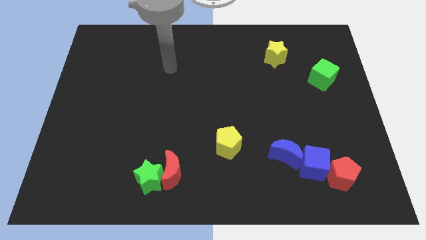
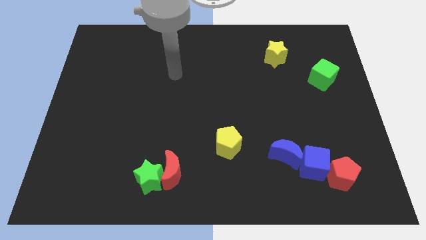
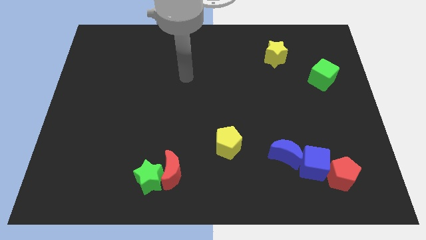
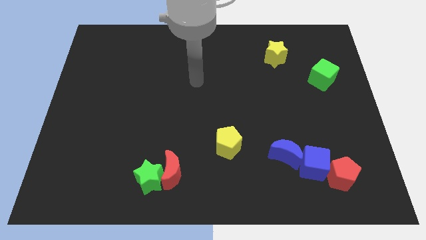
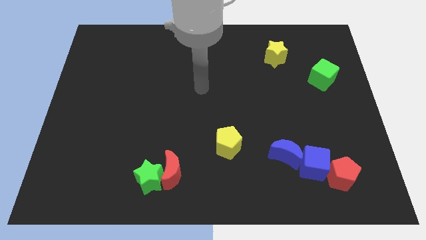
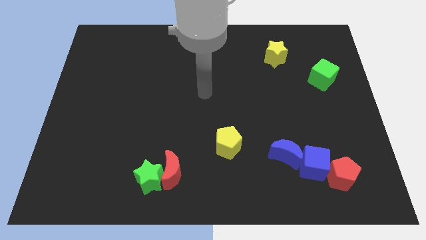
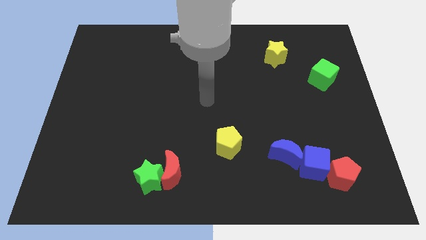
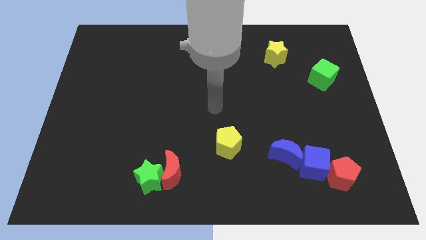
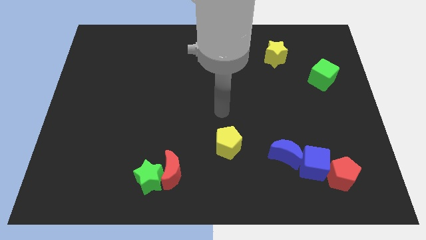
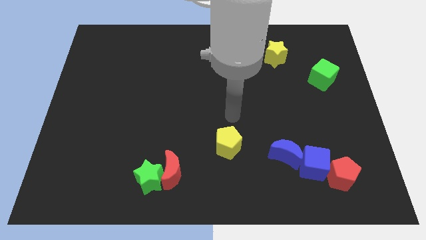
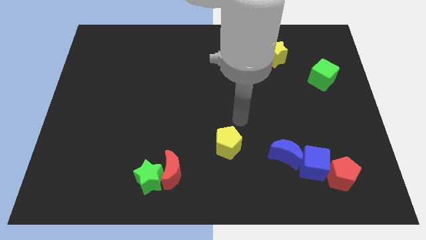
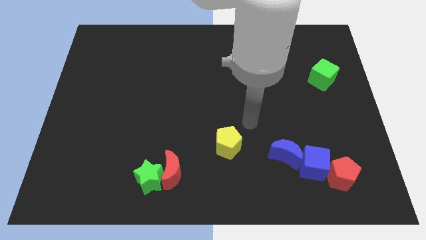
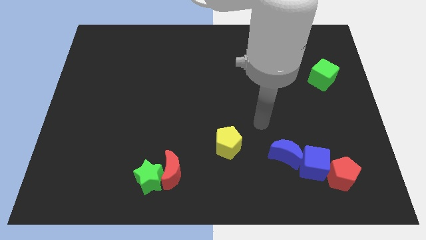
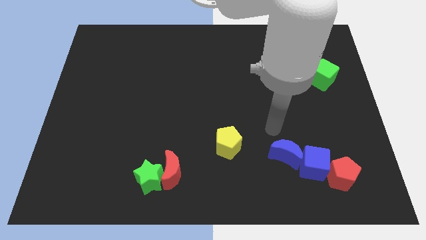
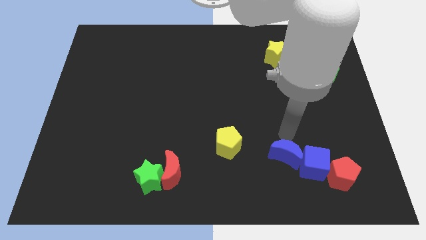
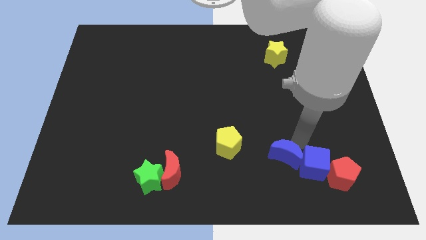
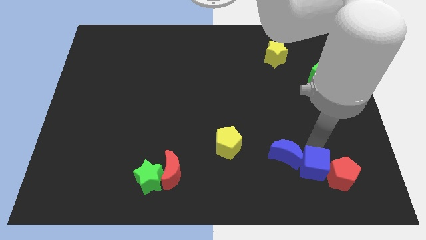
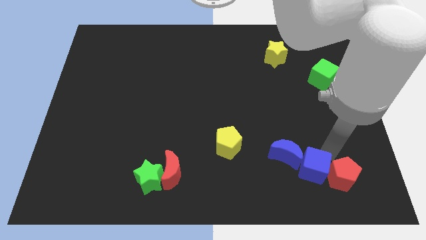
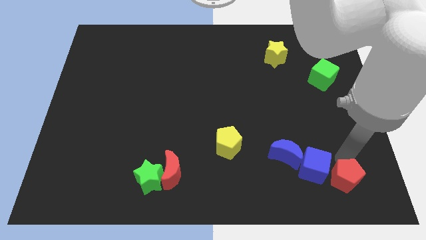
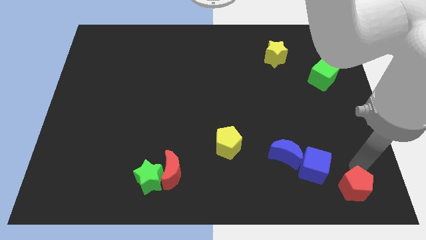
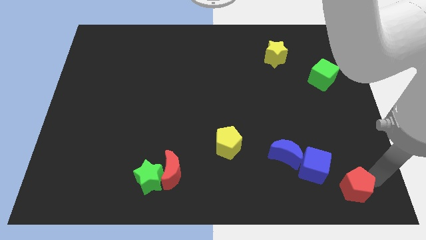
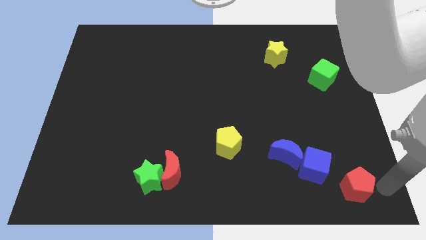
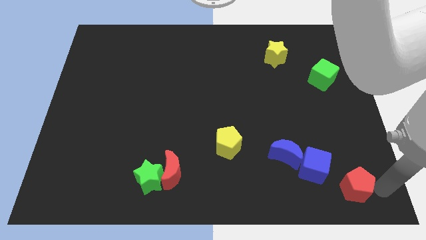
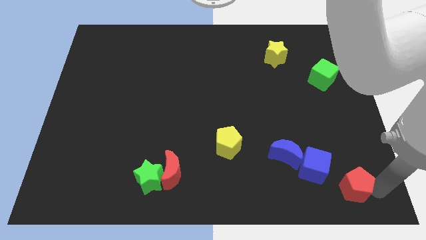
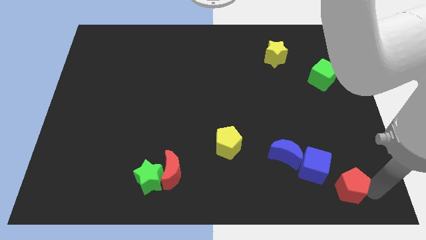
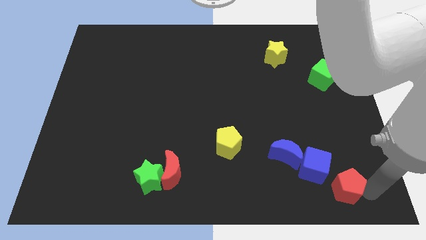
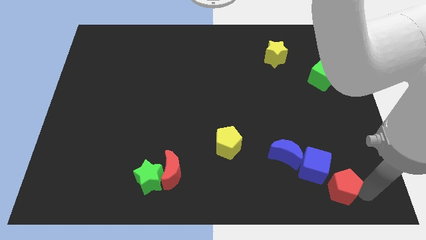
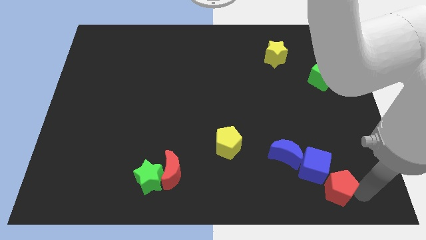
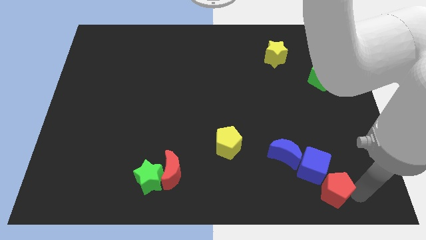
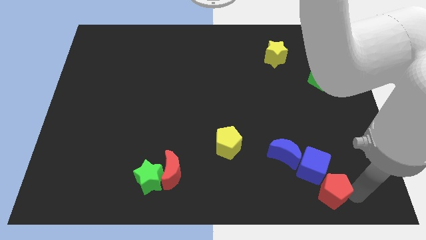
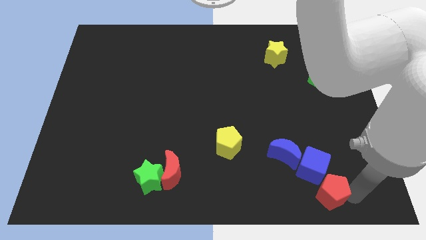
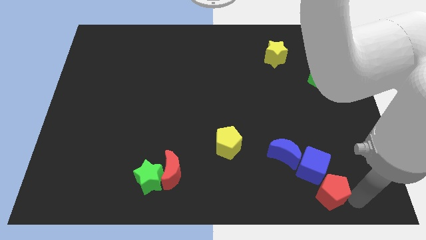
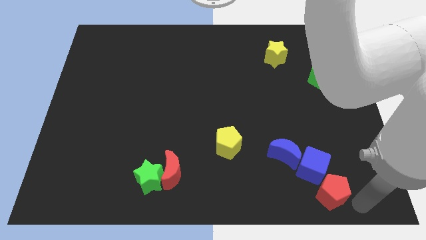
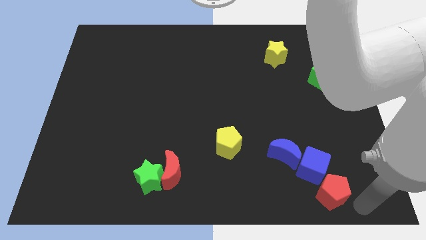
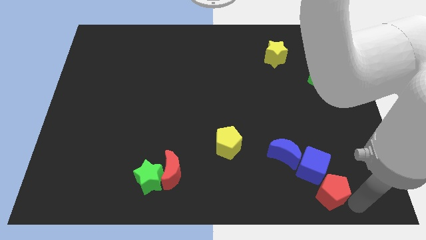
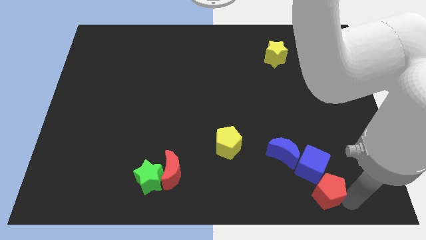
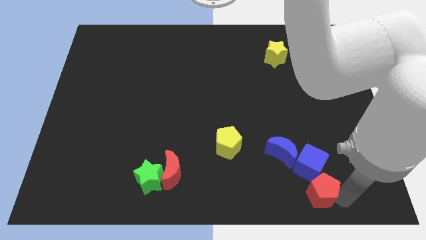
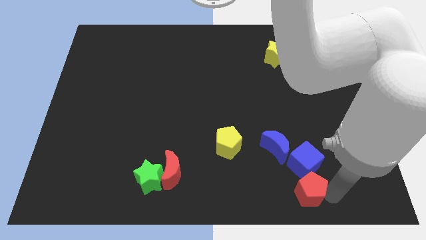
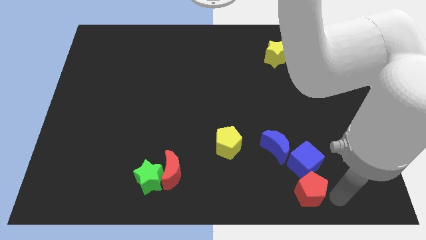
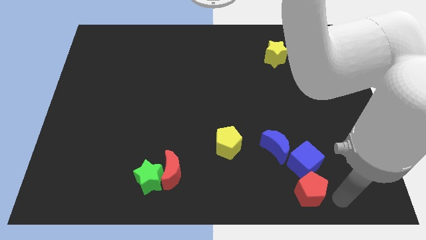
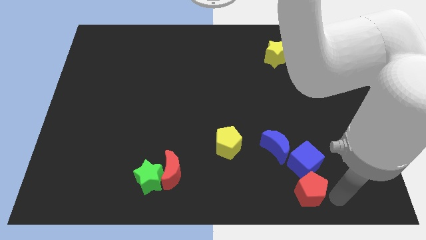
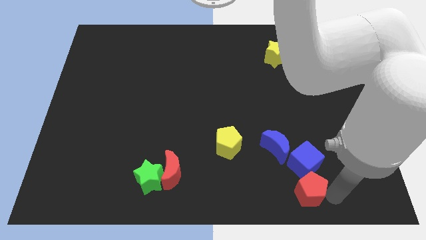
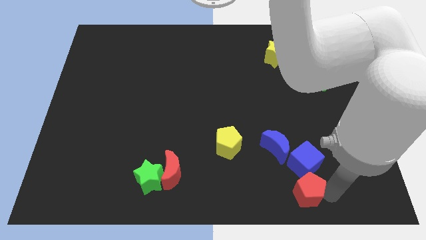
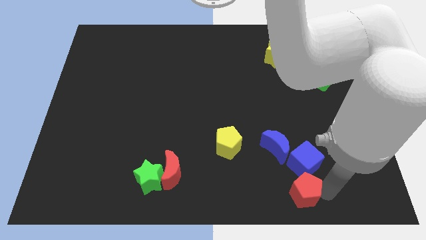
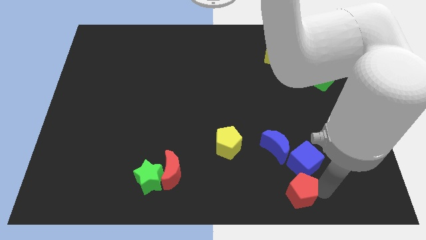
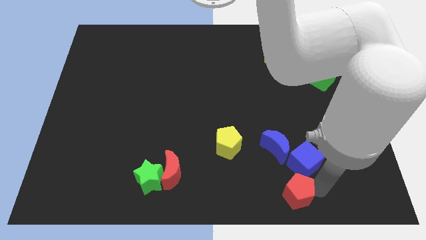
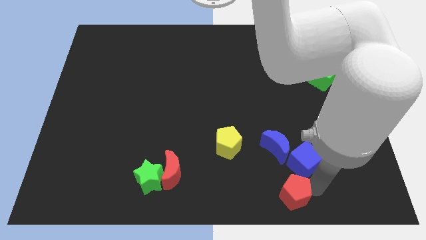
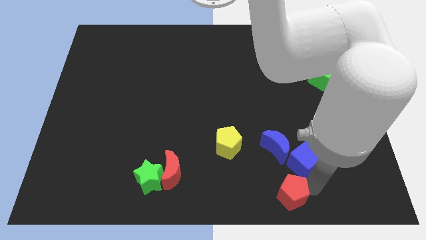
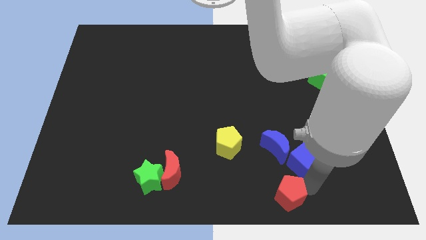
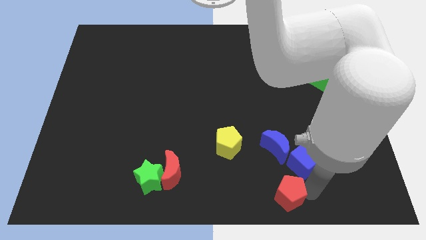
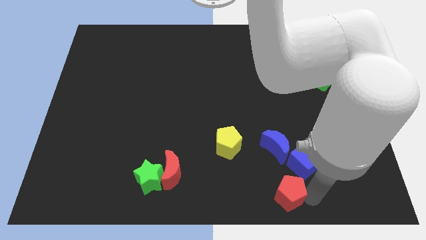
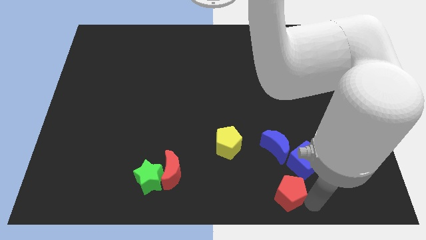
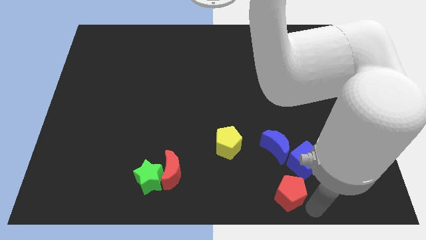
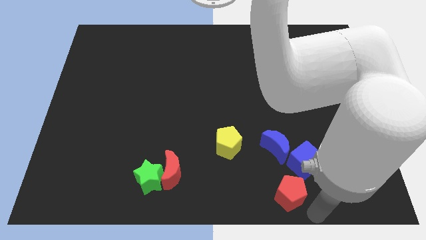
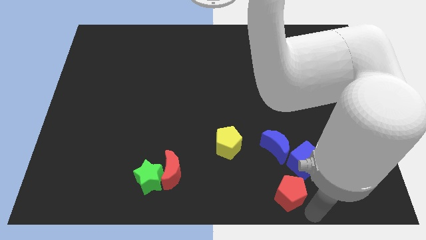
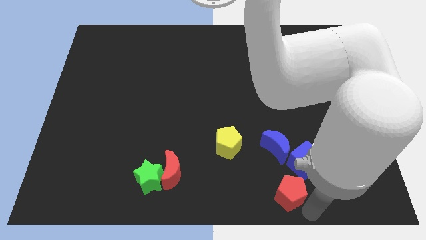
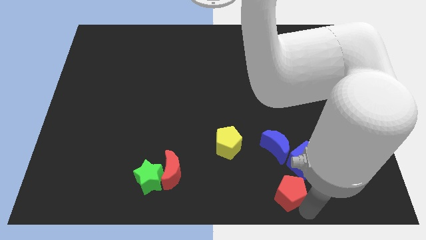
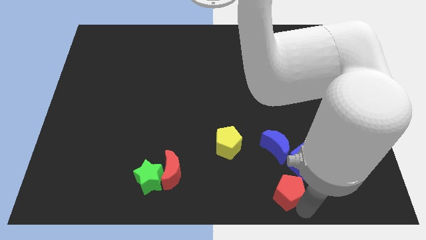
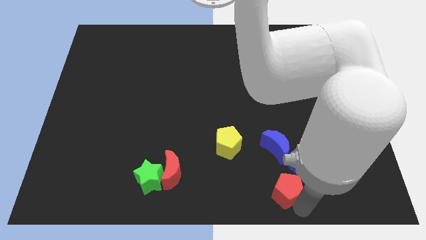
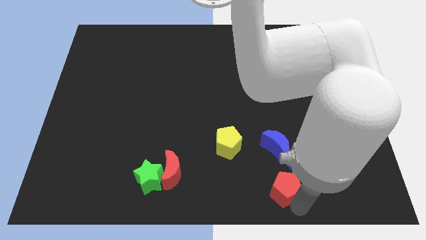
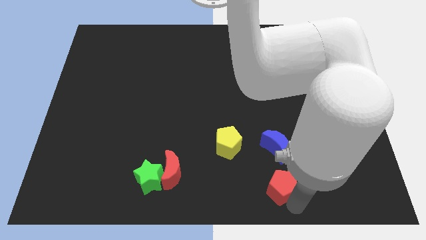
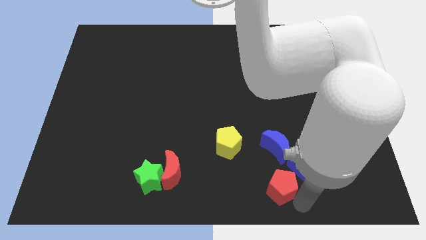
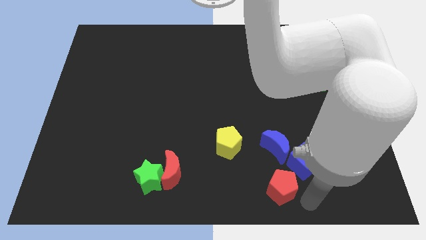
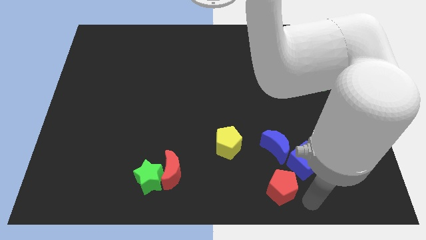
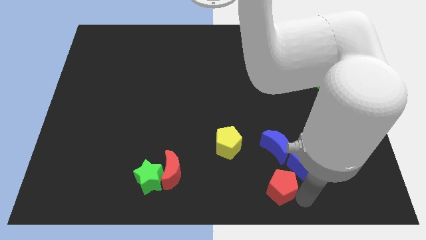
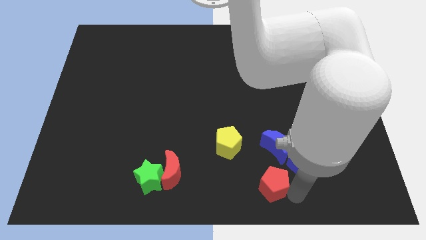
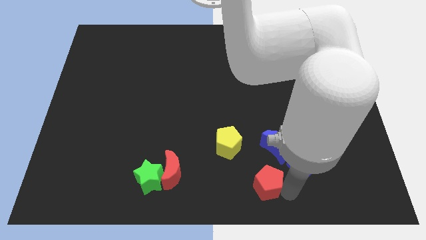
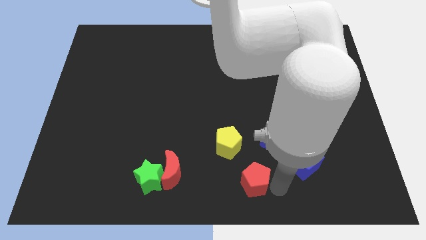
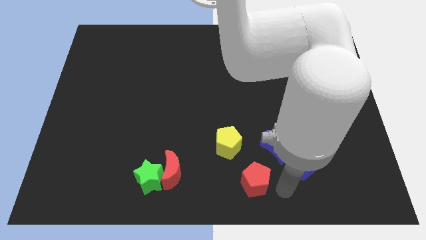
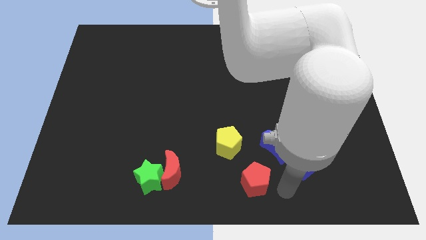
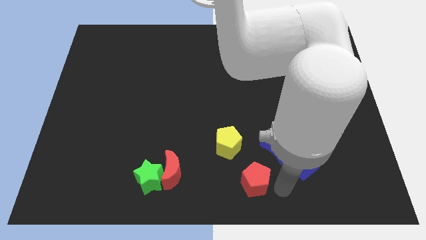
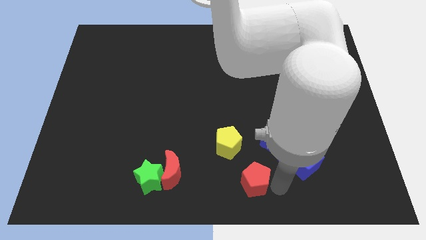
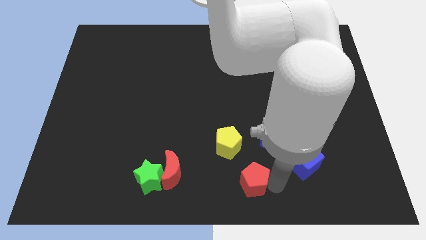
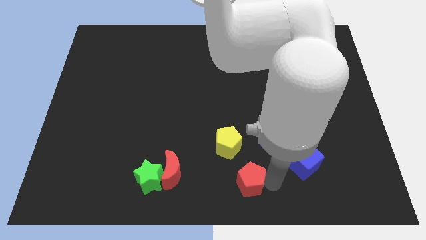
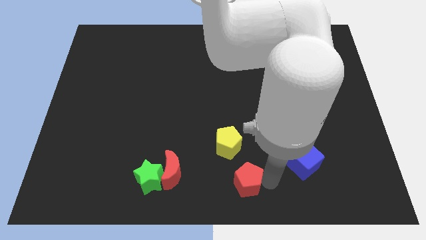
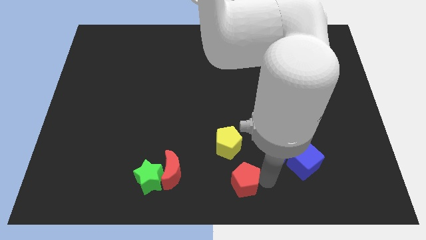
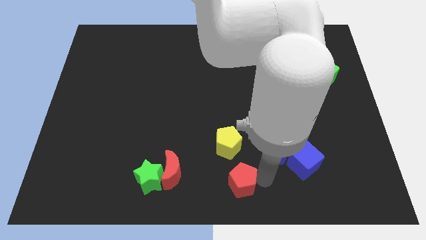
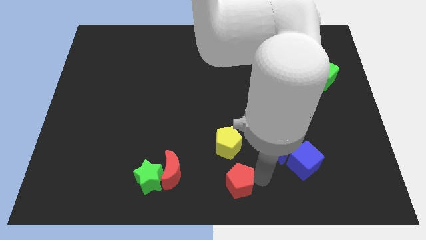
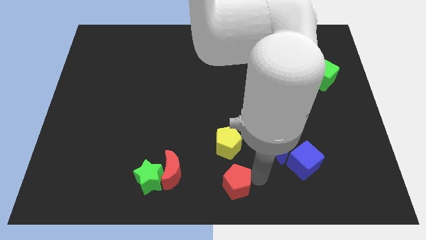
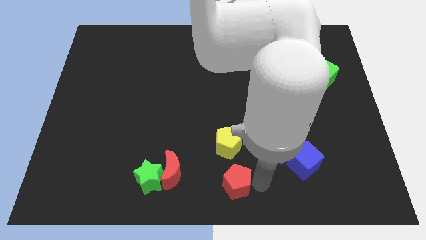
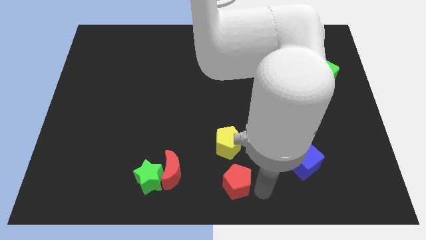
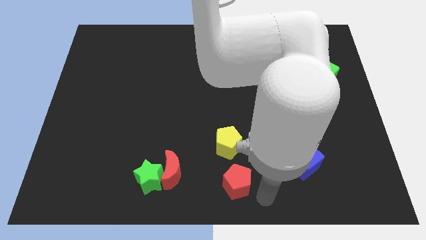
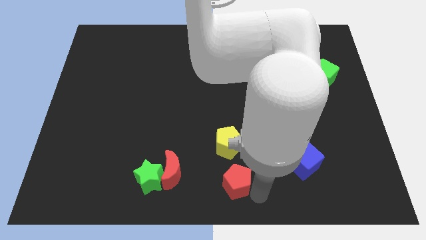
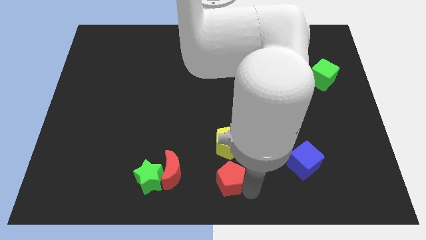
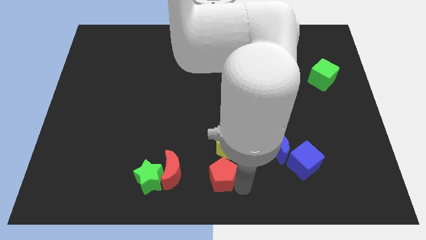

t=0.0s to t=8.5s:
slide the red pentagon diagonally down and to the left of the yellow pentagon
